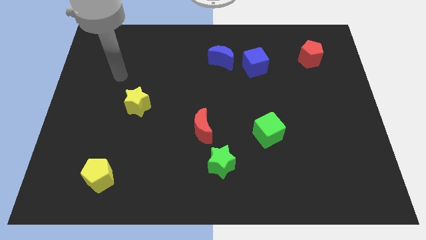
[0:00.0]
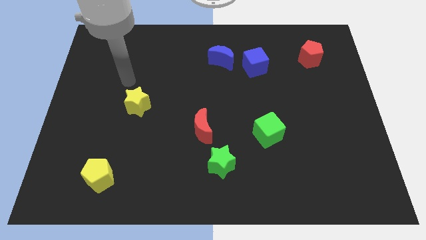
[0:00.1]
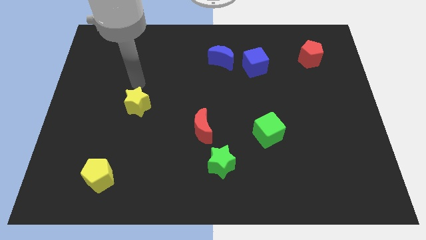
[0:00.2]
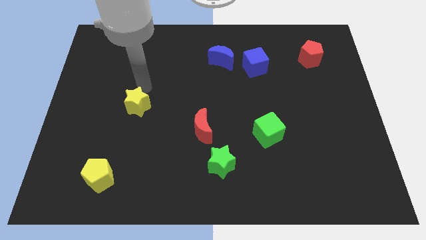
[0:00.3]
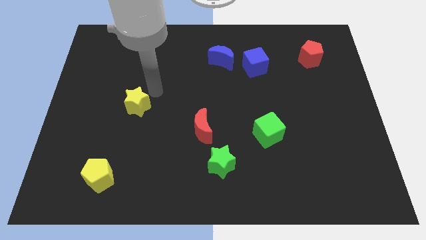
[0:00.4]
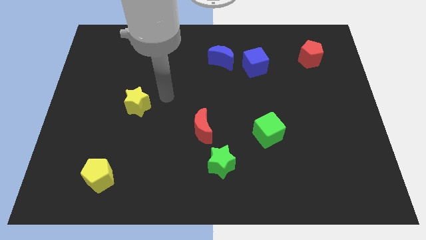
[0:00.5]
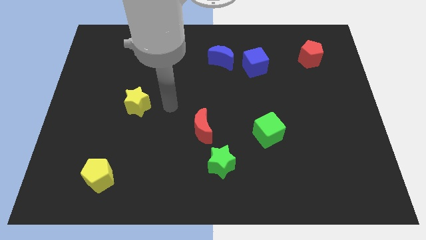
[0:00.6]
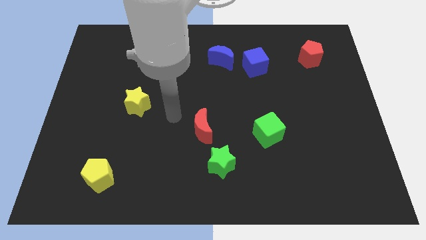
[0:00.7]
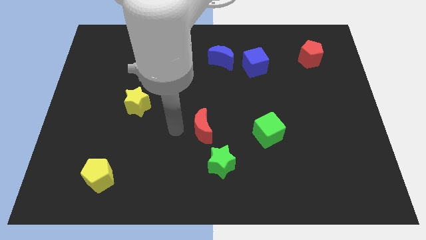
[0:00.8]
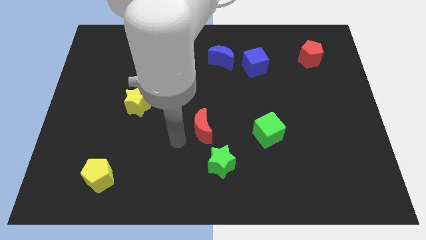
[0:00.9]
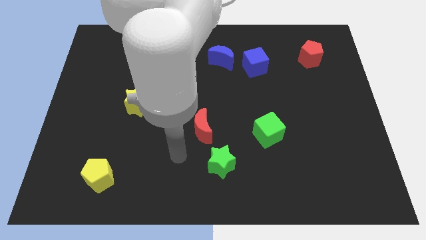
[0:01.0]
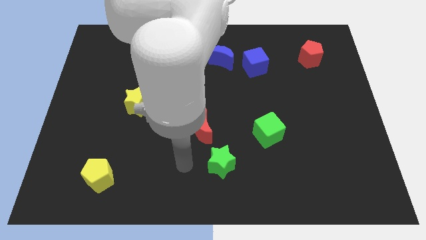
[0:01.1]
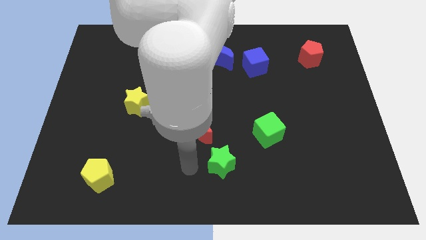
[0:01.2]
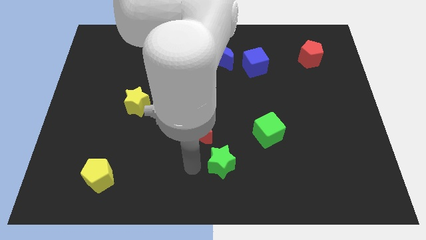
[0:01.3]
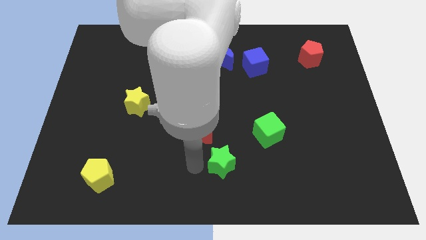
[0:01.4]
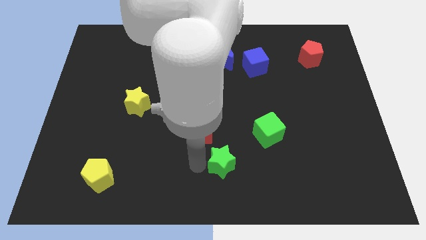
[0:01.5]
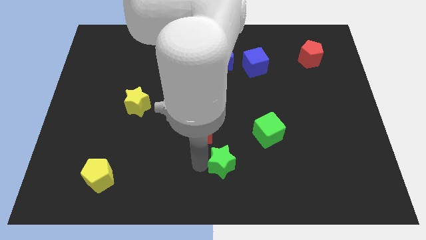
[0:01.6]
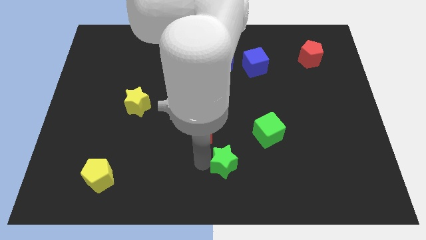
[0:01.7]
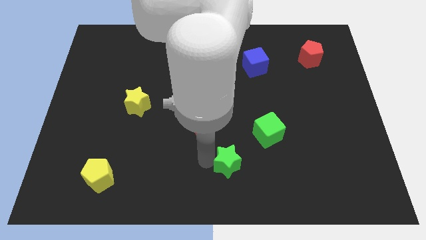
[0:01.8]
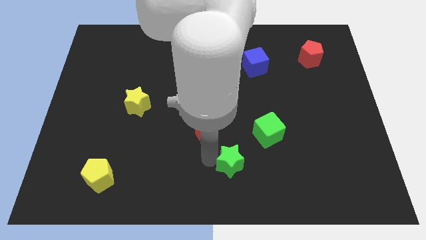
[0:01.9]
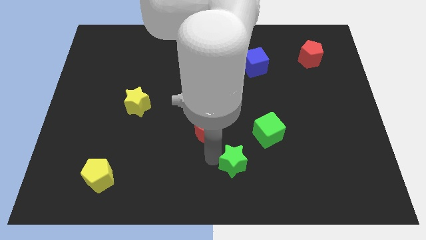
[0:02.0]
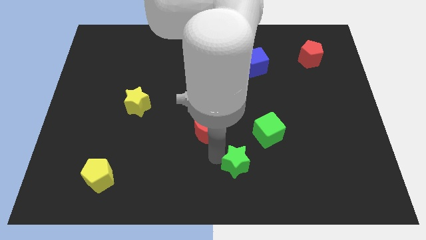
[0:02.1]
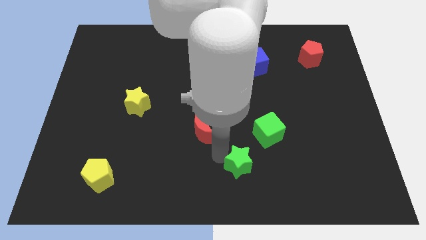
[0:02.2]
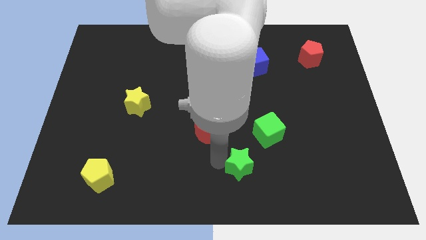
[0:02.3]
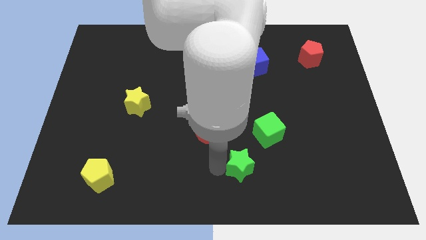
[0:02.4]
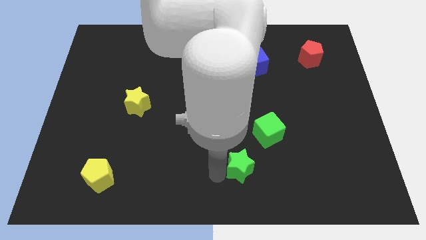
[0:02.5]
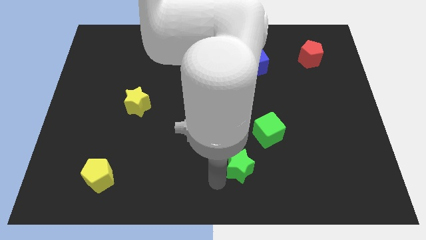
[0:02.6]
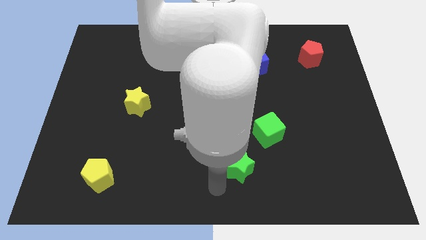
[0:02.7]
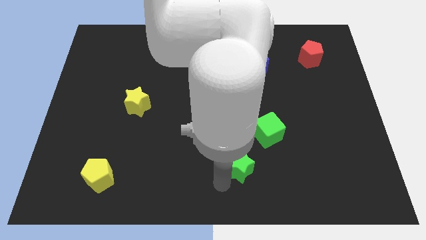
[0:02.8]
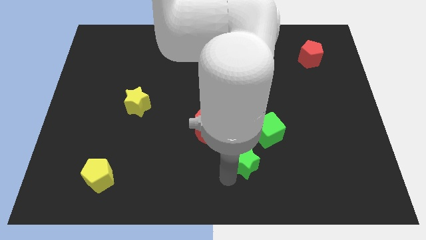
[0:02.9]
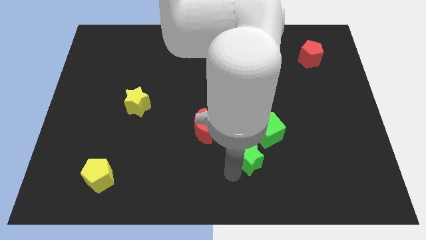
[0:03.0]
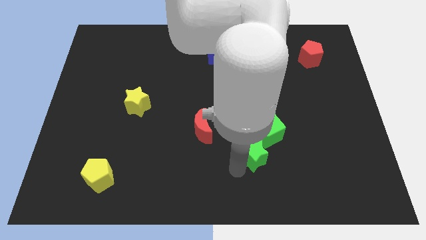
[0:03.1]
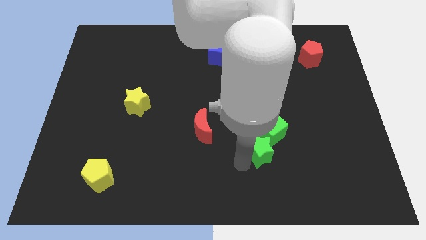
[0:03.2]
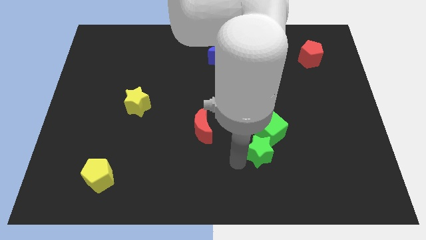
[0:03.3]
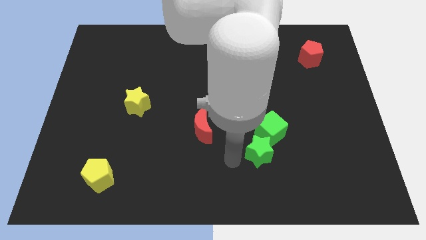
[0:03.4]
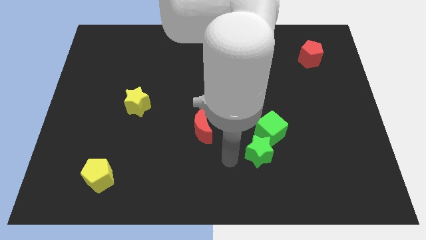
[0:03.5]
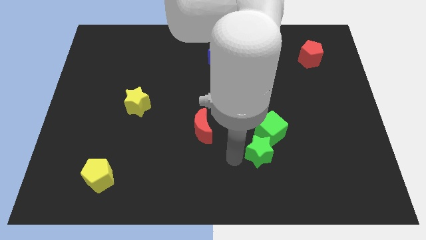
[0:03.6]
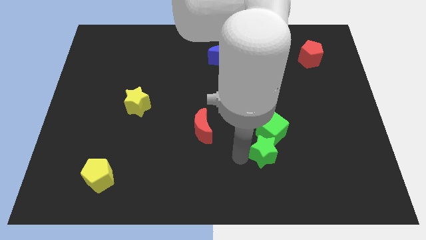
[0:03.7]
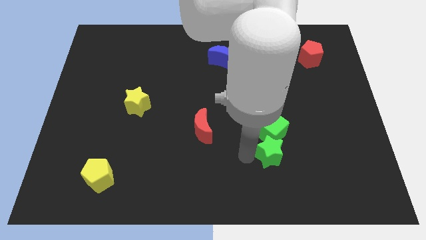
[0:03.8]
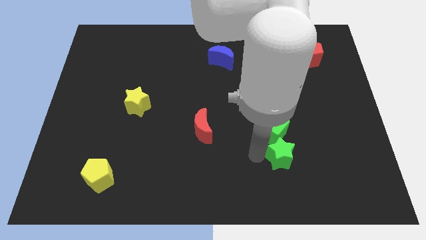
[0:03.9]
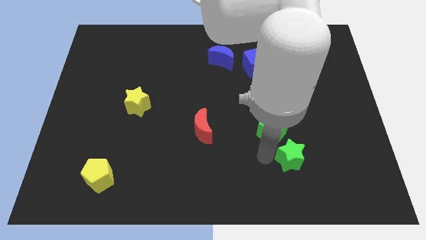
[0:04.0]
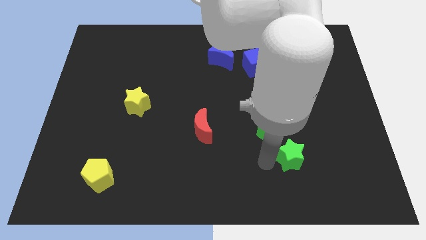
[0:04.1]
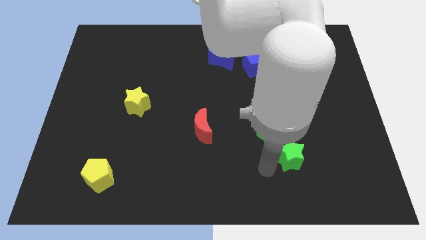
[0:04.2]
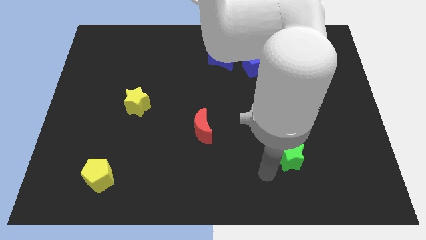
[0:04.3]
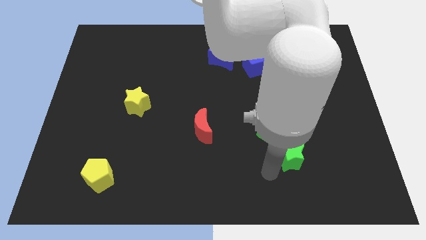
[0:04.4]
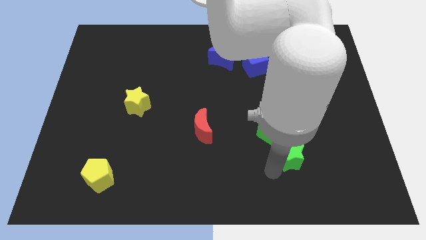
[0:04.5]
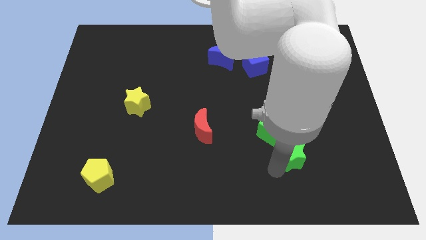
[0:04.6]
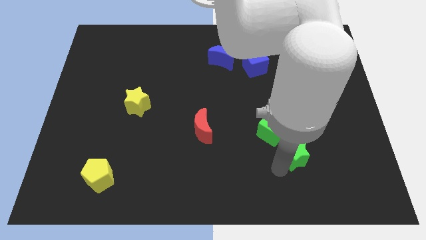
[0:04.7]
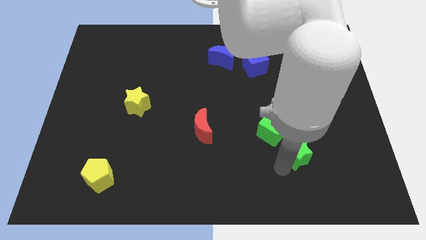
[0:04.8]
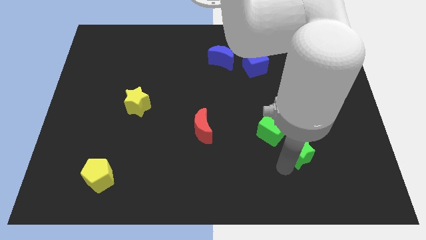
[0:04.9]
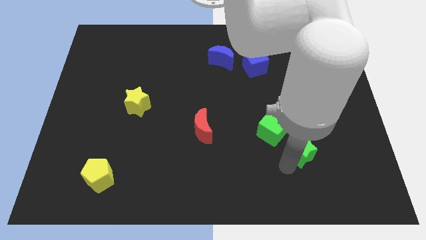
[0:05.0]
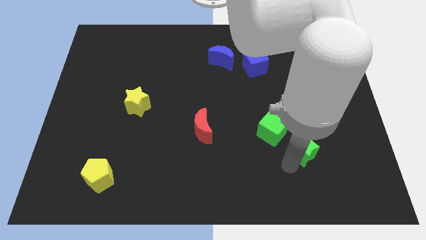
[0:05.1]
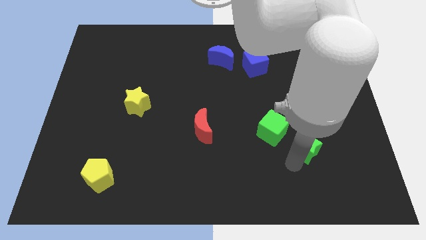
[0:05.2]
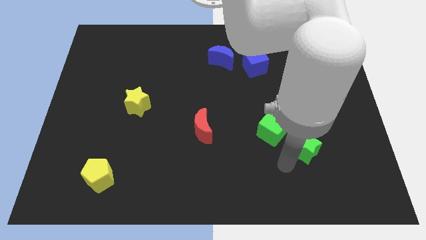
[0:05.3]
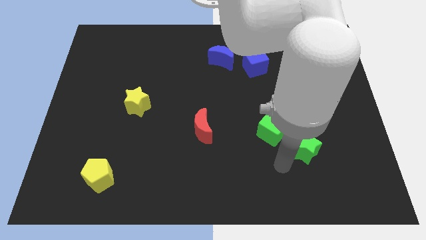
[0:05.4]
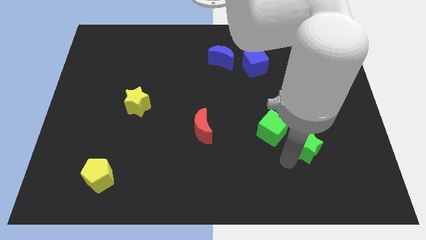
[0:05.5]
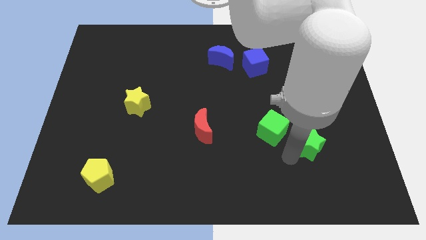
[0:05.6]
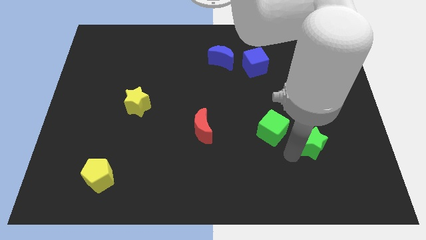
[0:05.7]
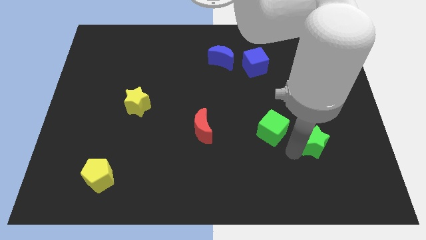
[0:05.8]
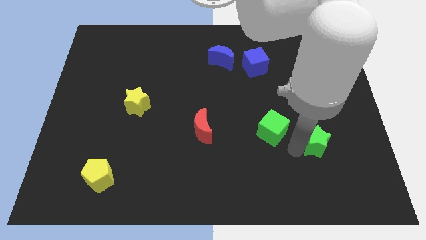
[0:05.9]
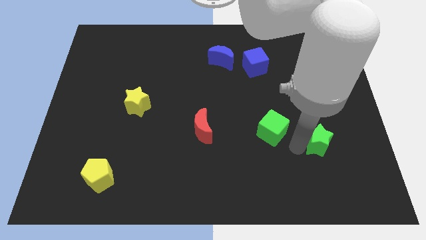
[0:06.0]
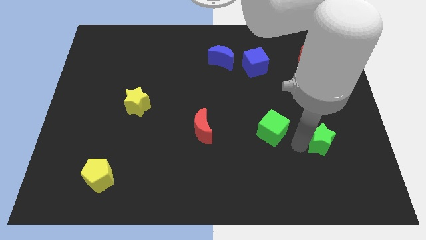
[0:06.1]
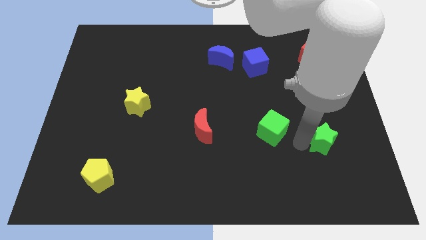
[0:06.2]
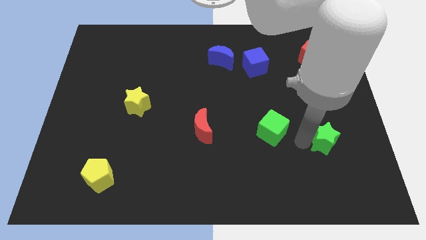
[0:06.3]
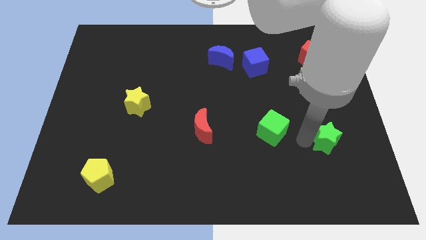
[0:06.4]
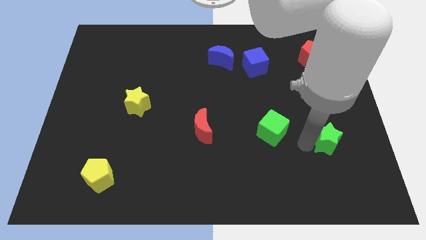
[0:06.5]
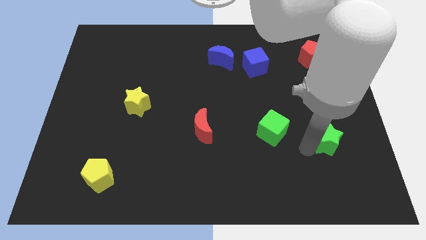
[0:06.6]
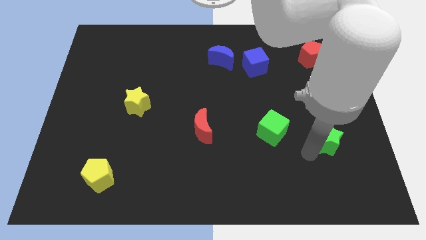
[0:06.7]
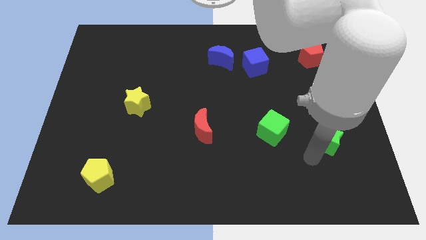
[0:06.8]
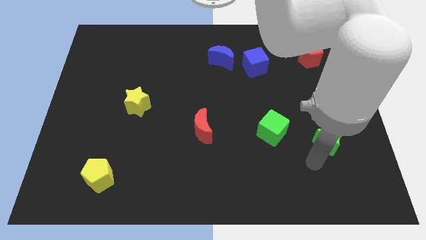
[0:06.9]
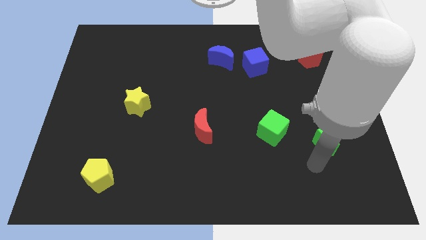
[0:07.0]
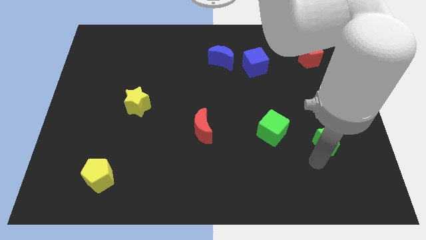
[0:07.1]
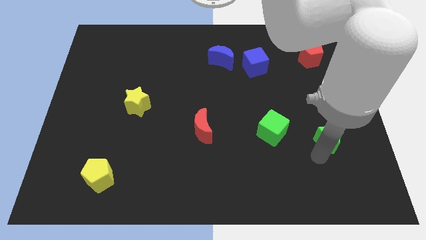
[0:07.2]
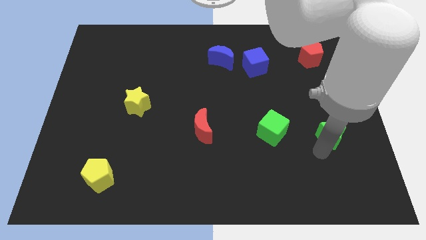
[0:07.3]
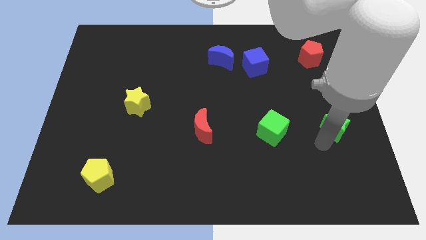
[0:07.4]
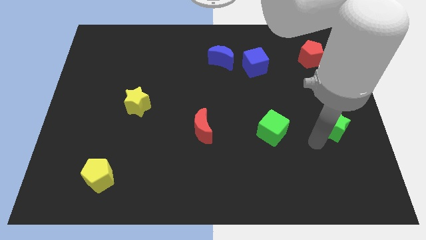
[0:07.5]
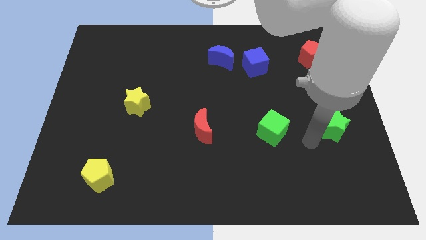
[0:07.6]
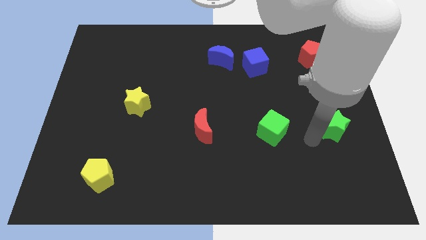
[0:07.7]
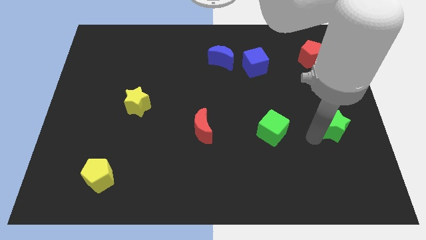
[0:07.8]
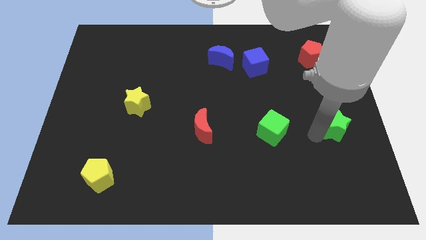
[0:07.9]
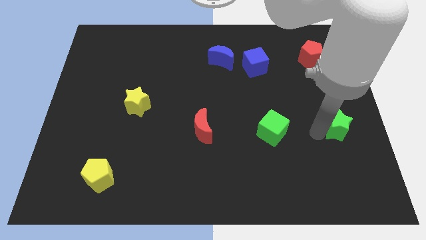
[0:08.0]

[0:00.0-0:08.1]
put the green star to the right side of the board
